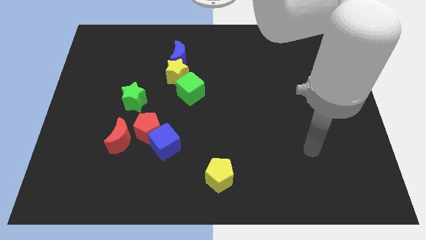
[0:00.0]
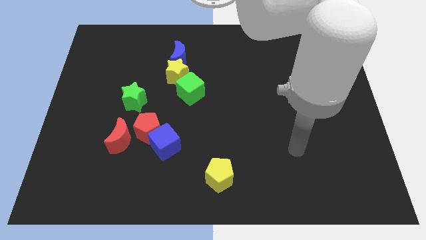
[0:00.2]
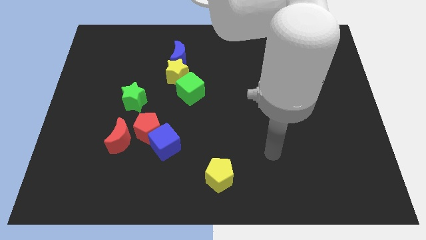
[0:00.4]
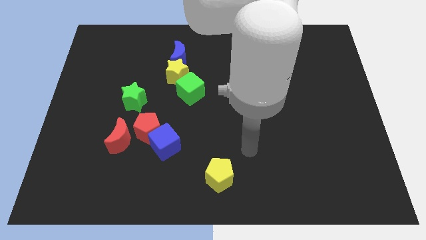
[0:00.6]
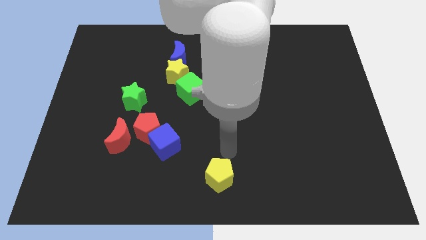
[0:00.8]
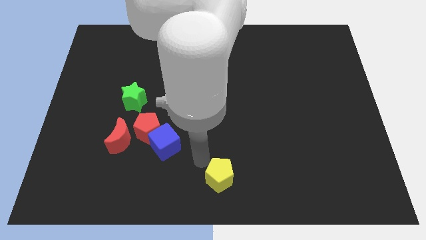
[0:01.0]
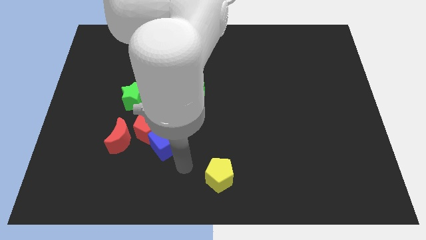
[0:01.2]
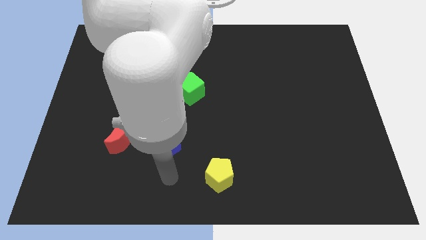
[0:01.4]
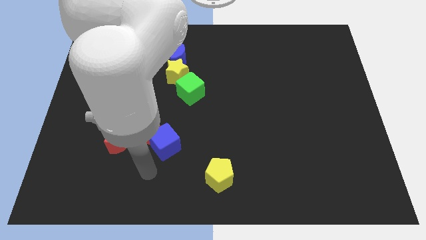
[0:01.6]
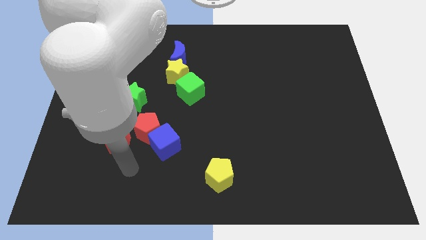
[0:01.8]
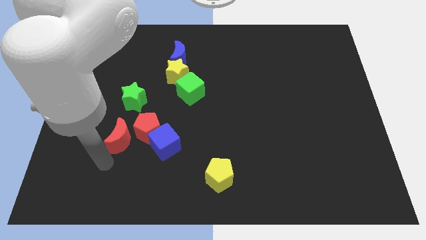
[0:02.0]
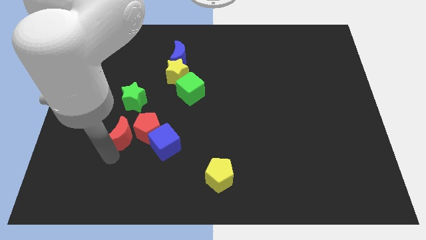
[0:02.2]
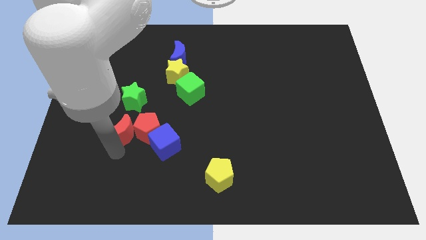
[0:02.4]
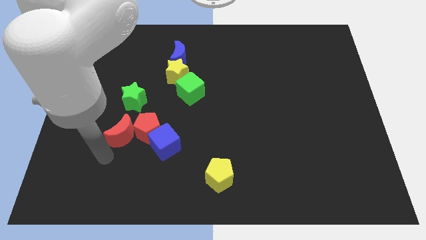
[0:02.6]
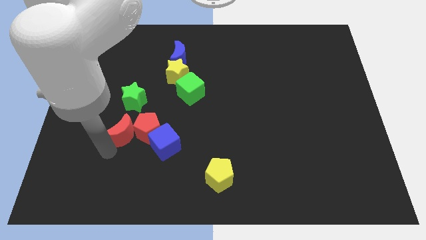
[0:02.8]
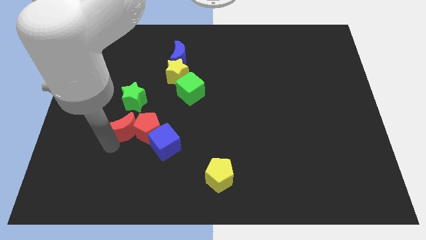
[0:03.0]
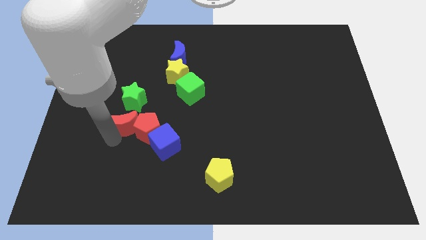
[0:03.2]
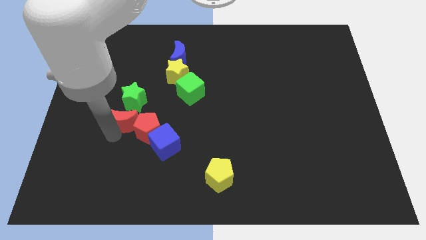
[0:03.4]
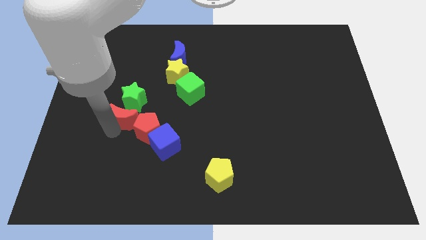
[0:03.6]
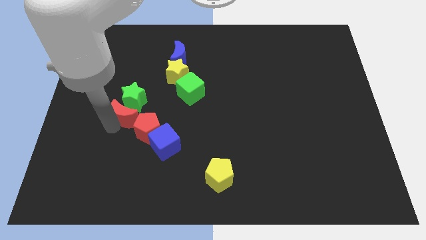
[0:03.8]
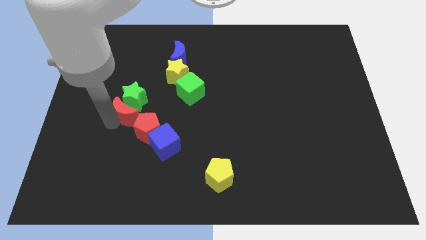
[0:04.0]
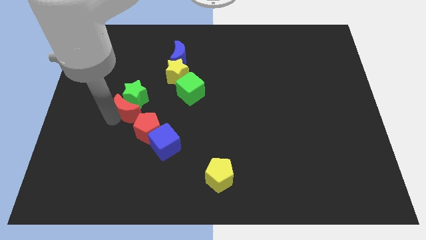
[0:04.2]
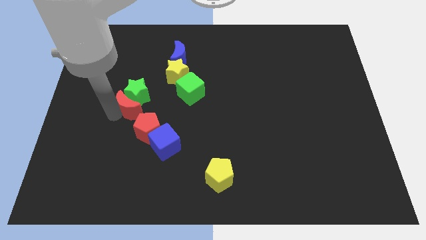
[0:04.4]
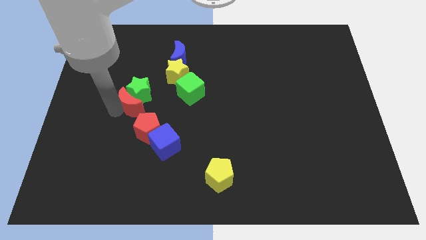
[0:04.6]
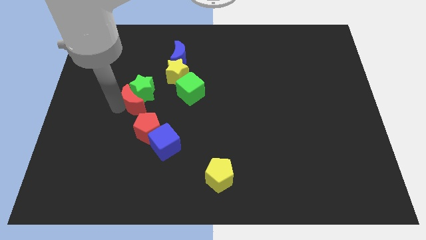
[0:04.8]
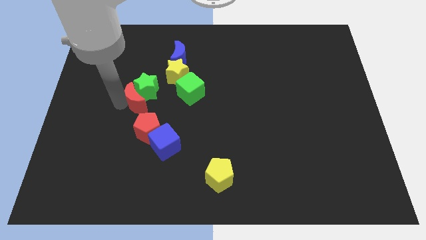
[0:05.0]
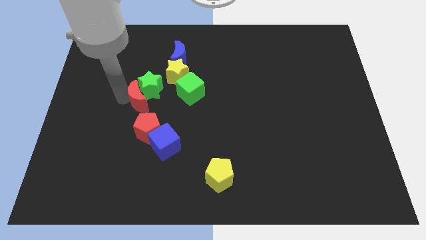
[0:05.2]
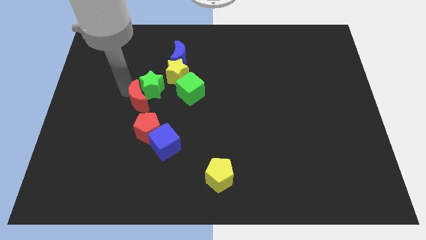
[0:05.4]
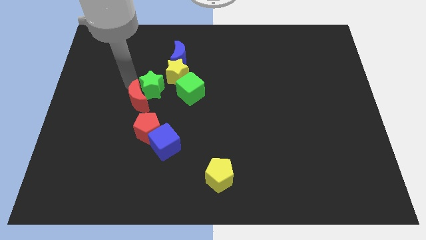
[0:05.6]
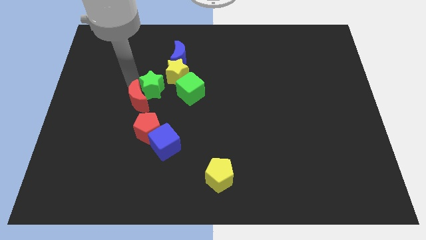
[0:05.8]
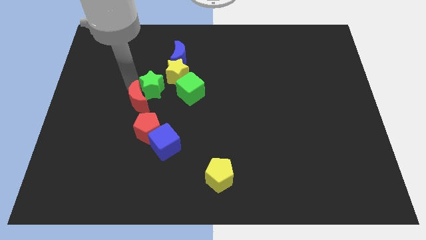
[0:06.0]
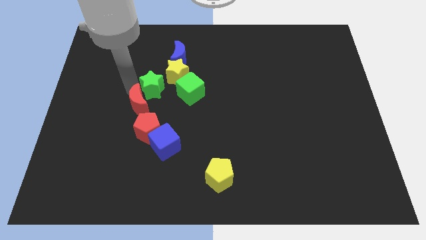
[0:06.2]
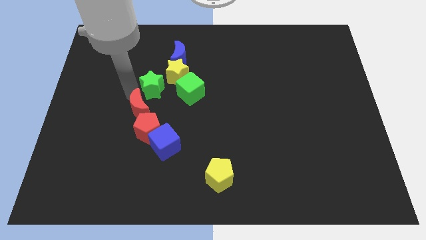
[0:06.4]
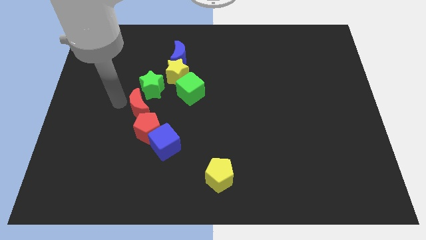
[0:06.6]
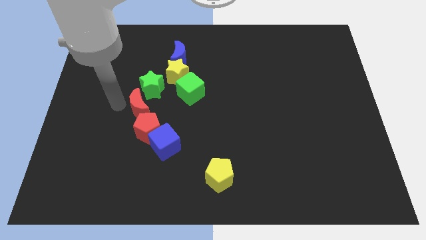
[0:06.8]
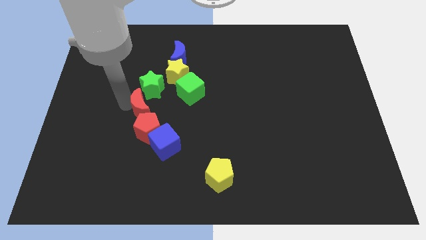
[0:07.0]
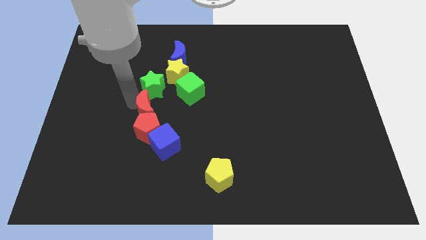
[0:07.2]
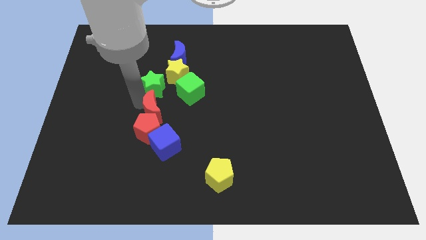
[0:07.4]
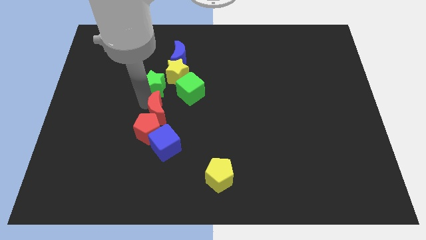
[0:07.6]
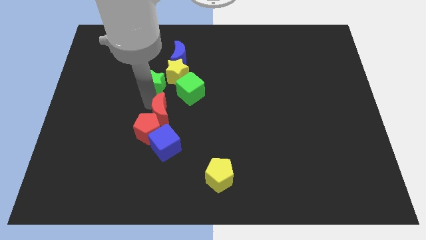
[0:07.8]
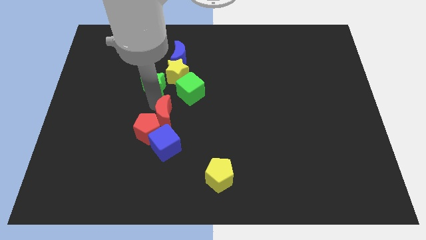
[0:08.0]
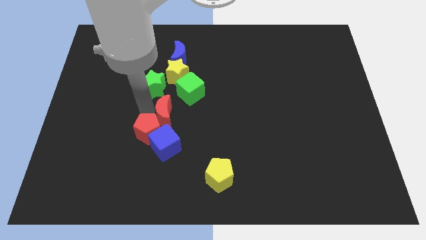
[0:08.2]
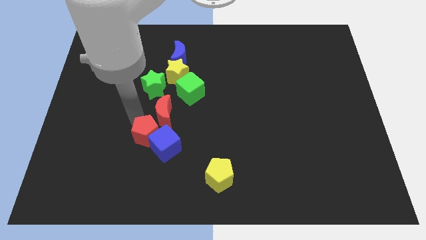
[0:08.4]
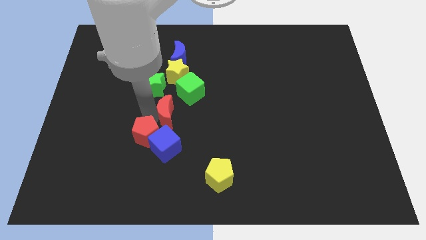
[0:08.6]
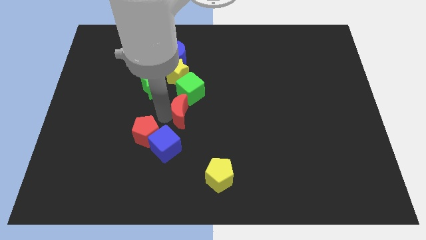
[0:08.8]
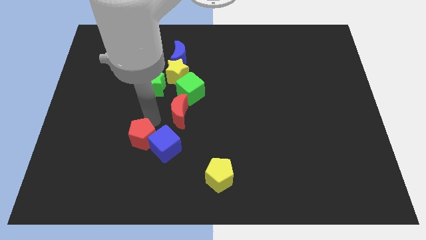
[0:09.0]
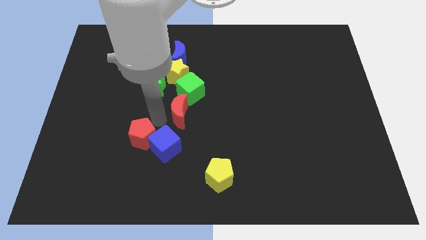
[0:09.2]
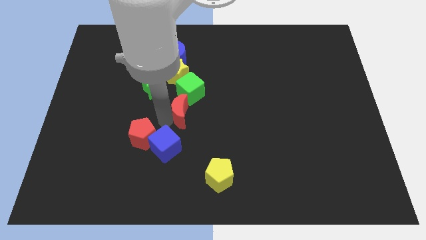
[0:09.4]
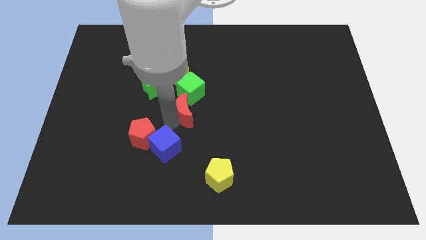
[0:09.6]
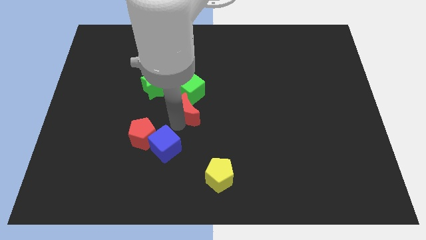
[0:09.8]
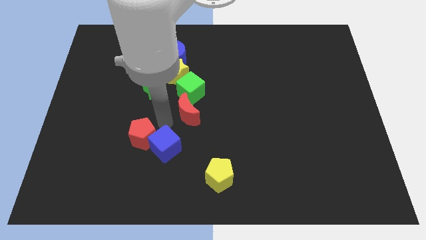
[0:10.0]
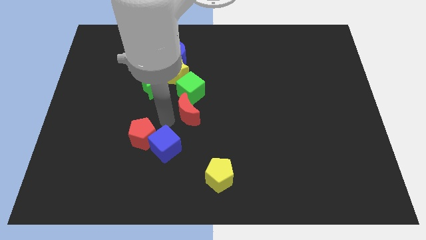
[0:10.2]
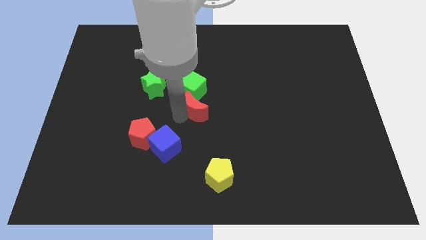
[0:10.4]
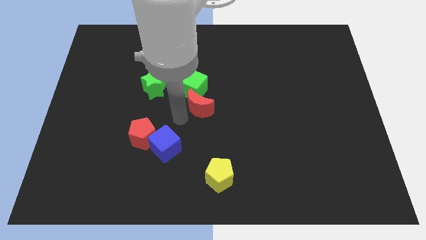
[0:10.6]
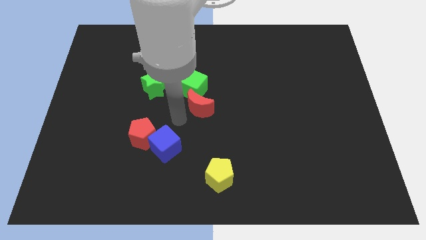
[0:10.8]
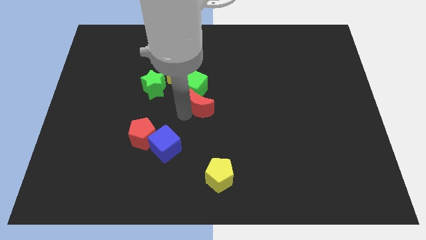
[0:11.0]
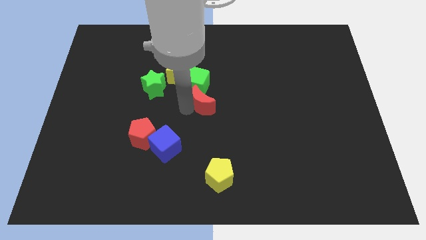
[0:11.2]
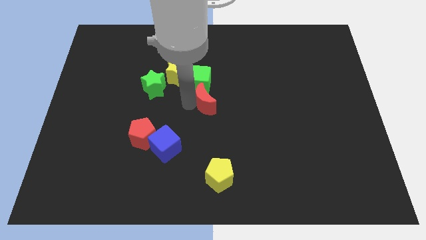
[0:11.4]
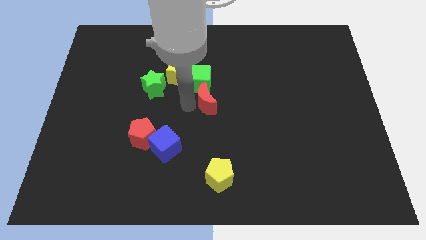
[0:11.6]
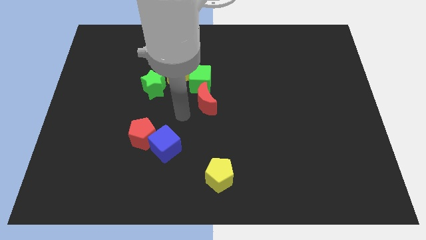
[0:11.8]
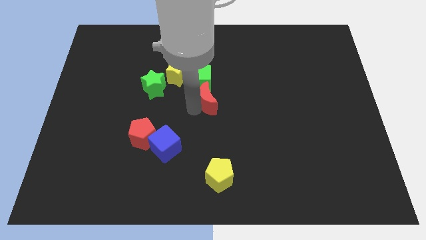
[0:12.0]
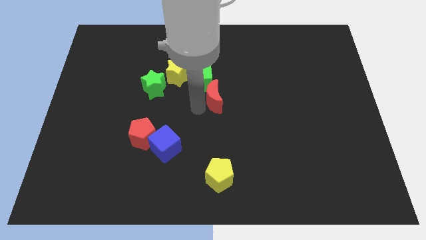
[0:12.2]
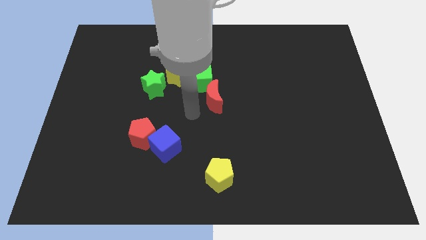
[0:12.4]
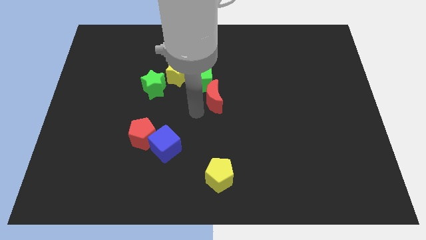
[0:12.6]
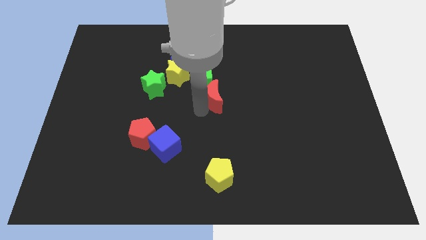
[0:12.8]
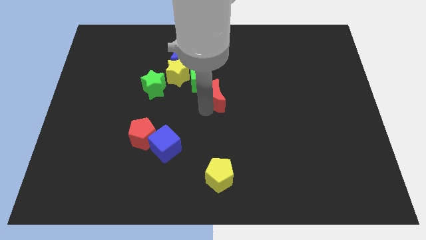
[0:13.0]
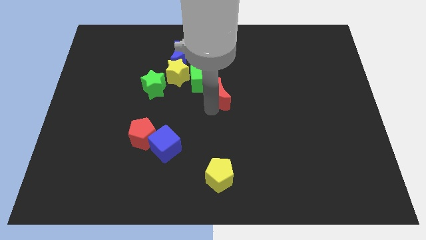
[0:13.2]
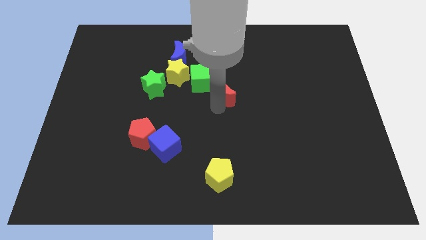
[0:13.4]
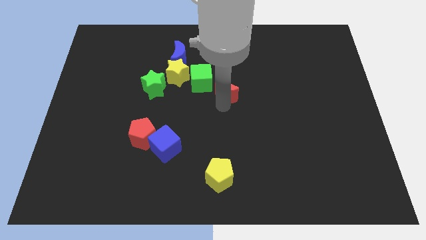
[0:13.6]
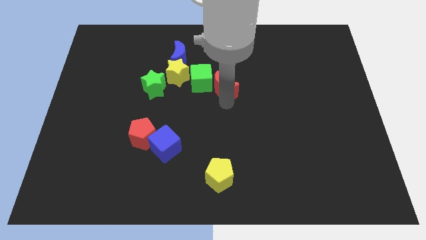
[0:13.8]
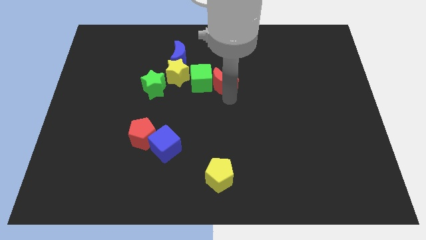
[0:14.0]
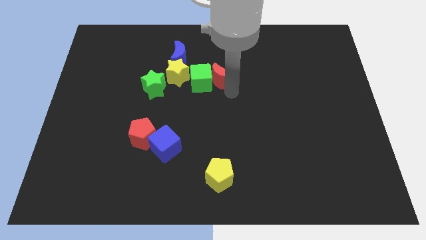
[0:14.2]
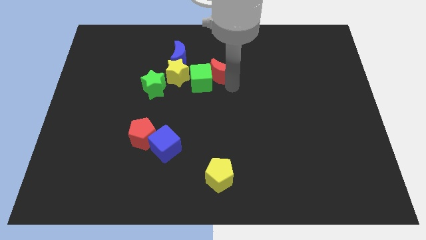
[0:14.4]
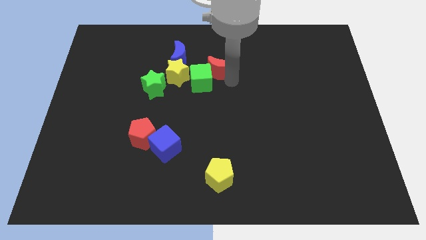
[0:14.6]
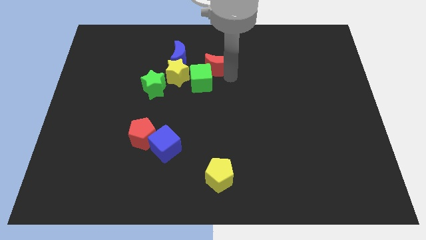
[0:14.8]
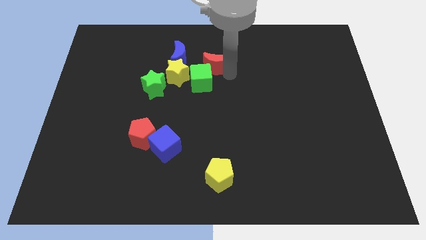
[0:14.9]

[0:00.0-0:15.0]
push the red moon to the top right of the yellow star
